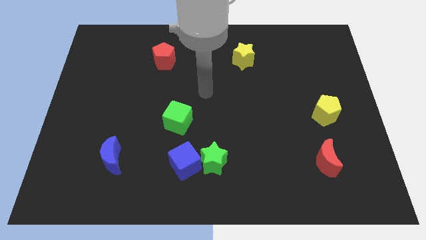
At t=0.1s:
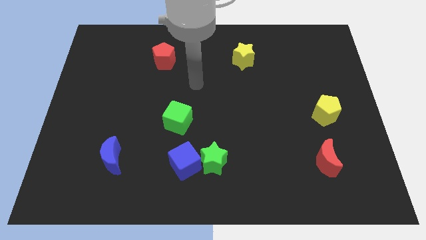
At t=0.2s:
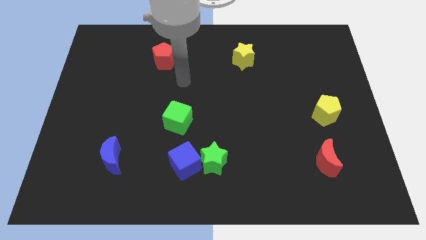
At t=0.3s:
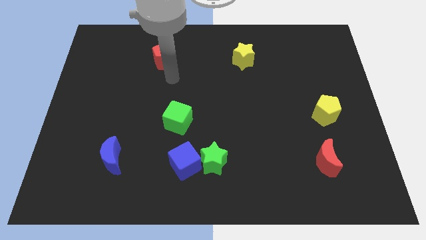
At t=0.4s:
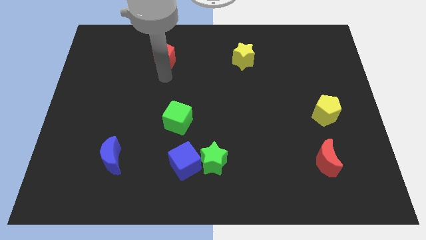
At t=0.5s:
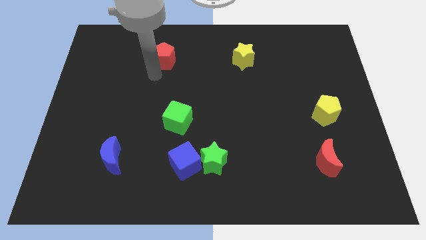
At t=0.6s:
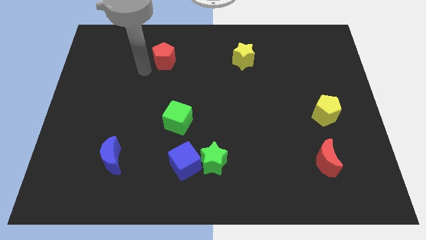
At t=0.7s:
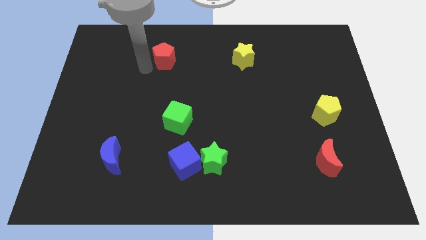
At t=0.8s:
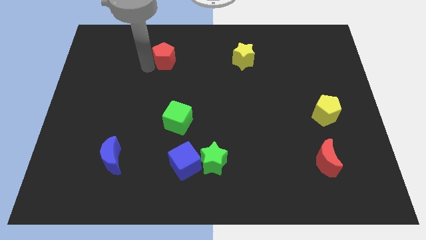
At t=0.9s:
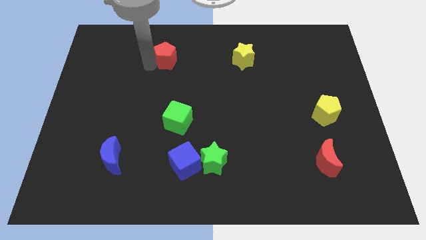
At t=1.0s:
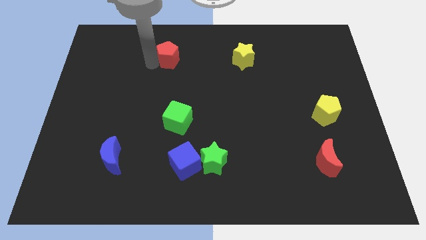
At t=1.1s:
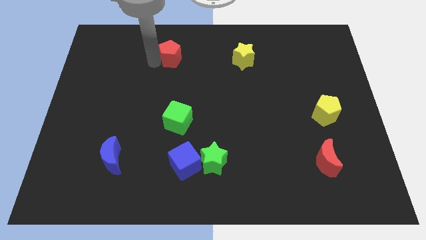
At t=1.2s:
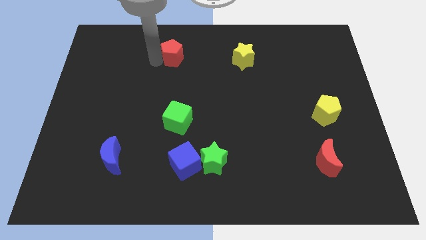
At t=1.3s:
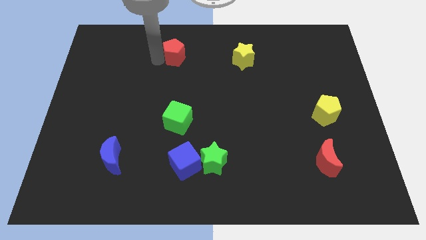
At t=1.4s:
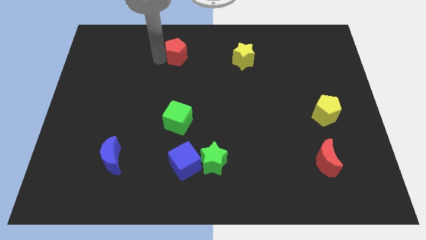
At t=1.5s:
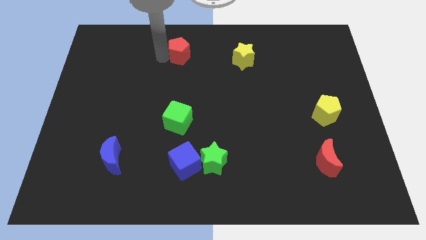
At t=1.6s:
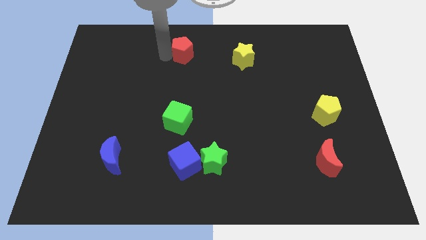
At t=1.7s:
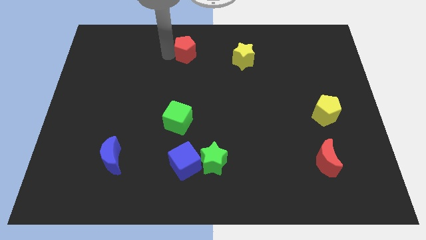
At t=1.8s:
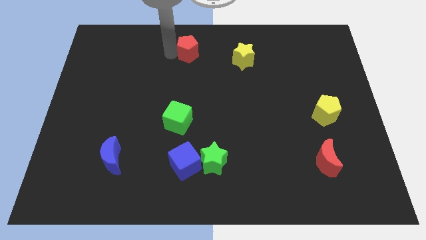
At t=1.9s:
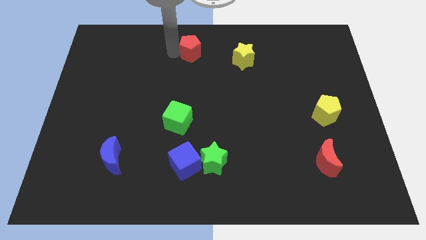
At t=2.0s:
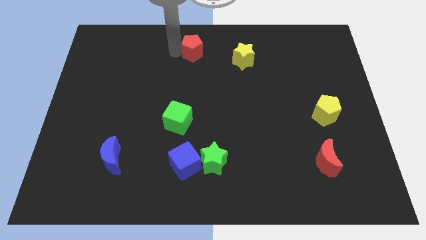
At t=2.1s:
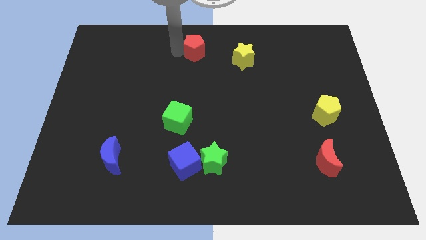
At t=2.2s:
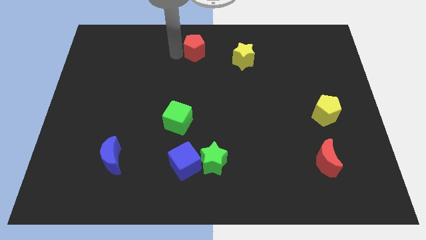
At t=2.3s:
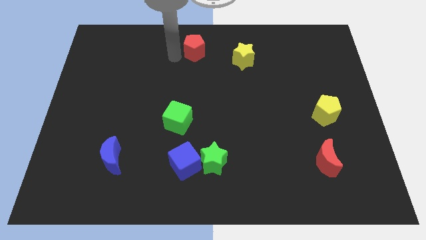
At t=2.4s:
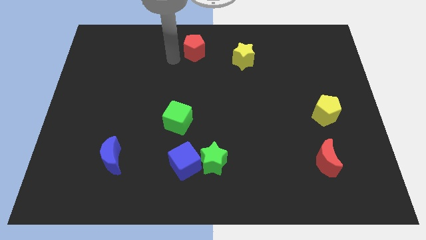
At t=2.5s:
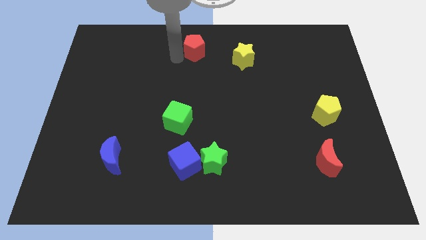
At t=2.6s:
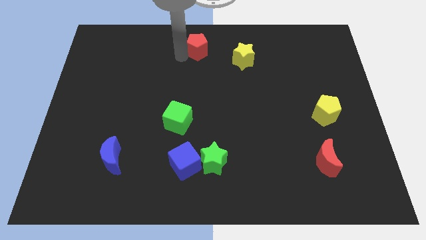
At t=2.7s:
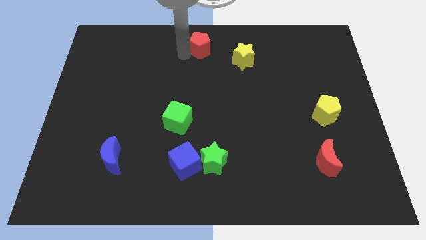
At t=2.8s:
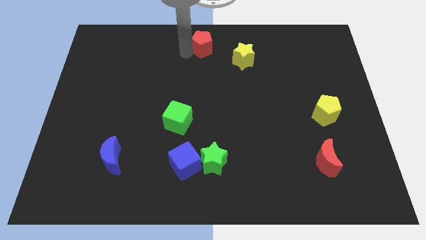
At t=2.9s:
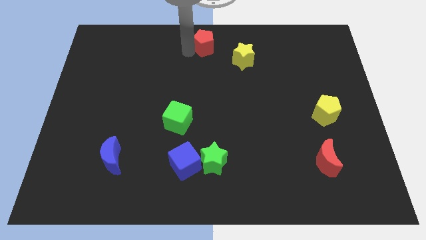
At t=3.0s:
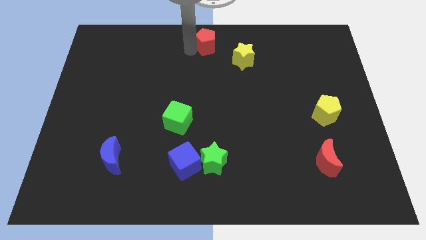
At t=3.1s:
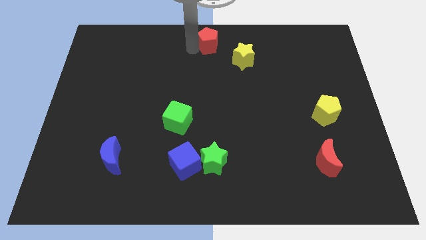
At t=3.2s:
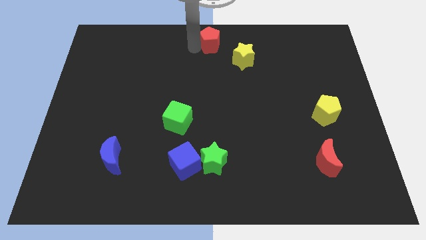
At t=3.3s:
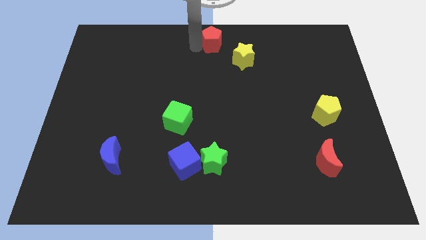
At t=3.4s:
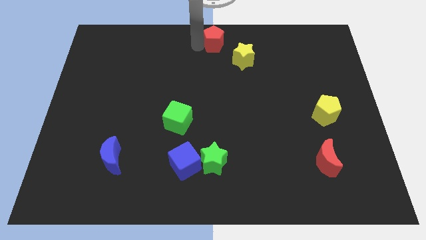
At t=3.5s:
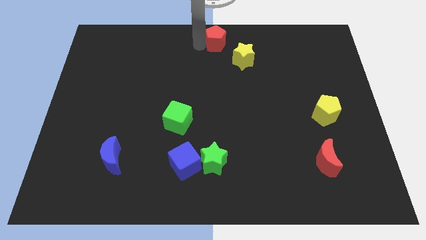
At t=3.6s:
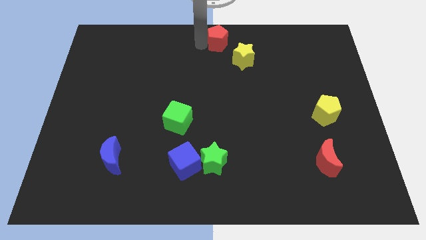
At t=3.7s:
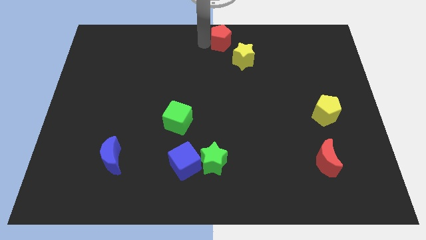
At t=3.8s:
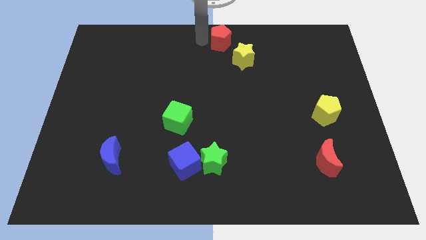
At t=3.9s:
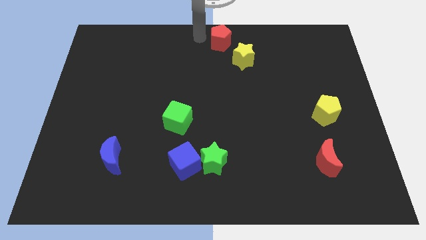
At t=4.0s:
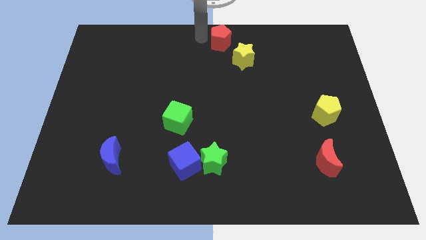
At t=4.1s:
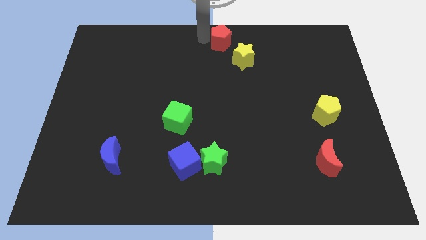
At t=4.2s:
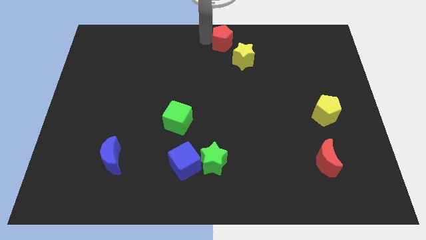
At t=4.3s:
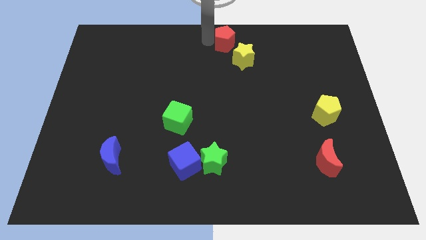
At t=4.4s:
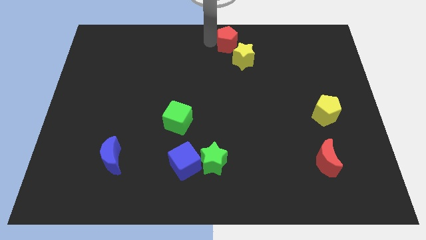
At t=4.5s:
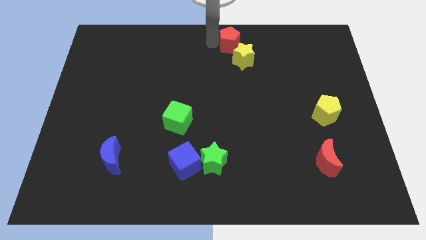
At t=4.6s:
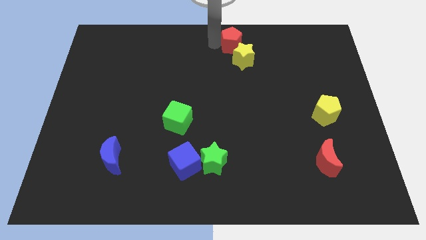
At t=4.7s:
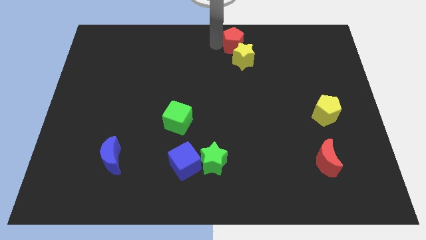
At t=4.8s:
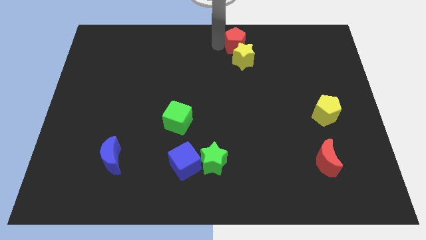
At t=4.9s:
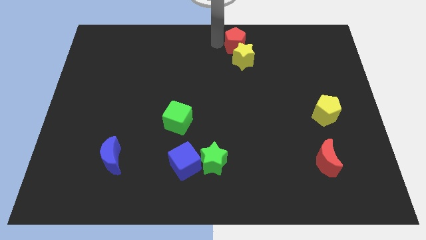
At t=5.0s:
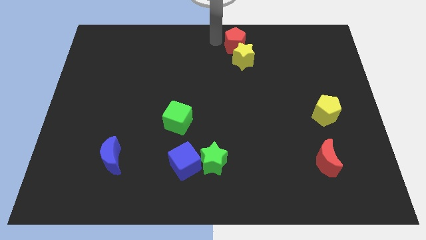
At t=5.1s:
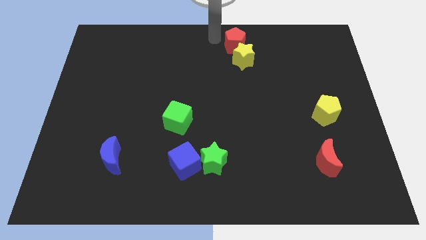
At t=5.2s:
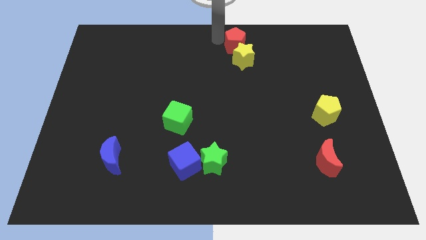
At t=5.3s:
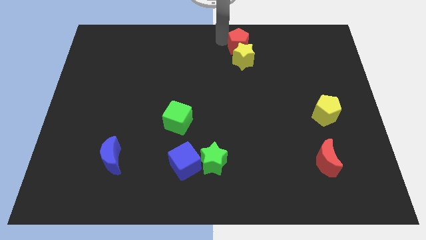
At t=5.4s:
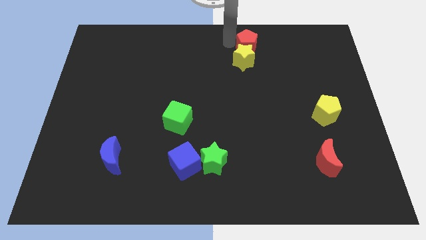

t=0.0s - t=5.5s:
slide the red pentagon right

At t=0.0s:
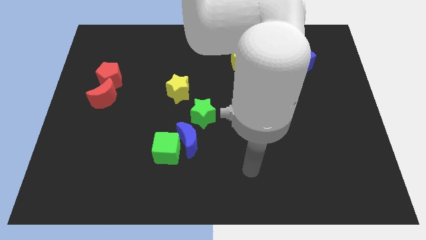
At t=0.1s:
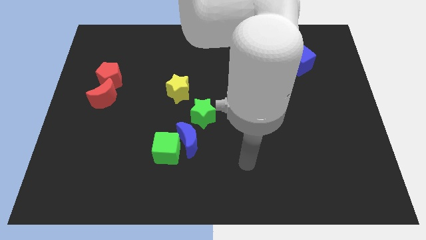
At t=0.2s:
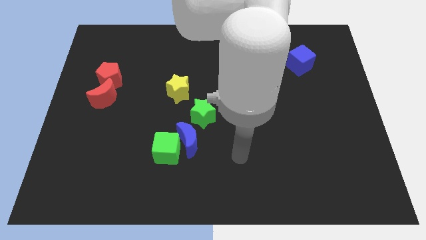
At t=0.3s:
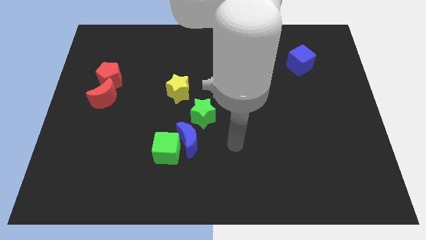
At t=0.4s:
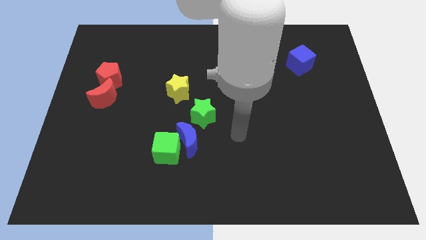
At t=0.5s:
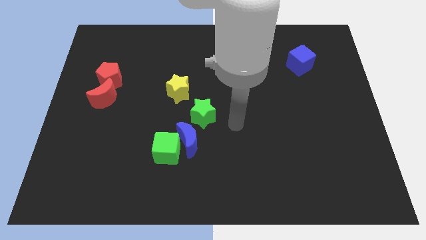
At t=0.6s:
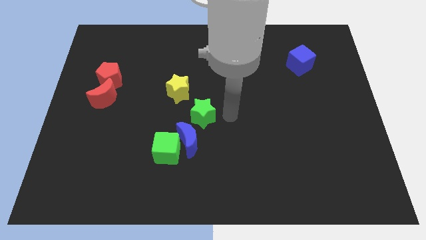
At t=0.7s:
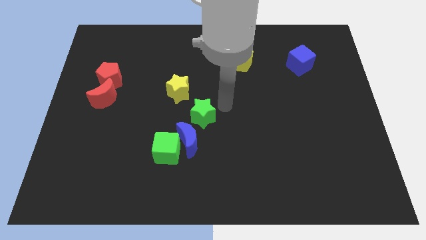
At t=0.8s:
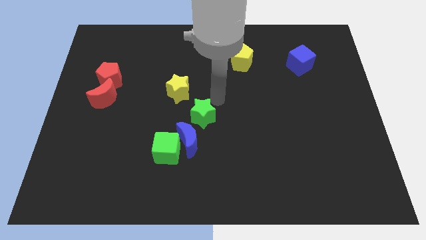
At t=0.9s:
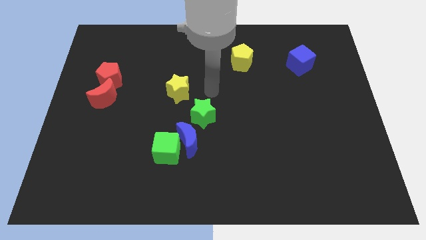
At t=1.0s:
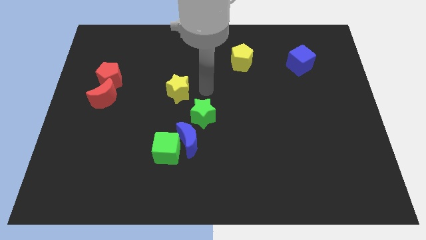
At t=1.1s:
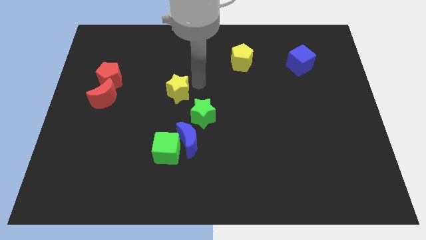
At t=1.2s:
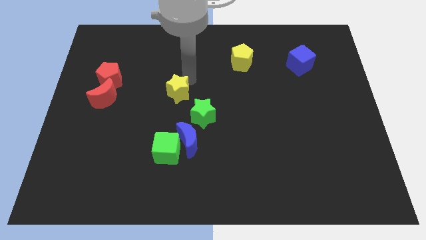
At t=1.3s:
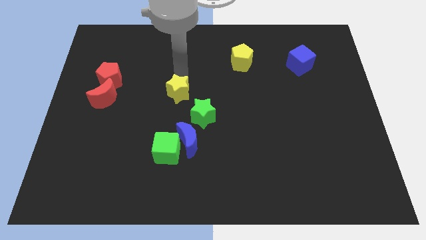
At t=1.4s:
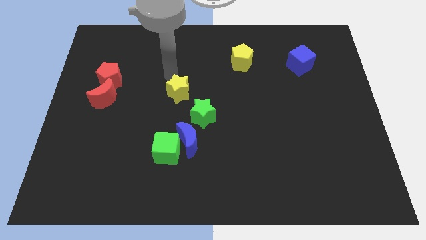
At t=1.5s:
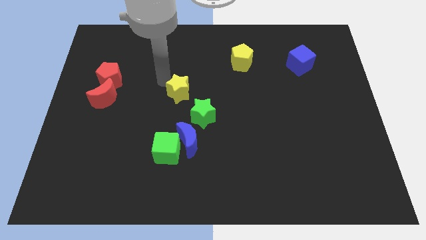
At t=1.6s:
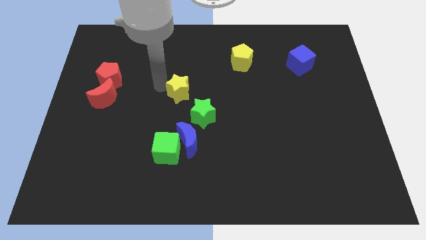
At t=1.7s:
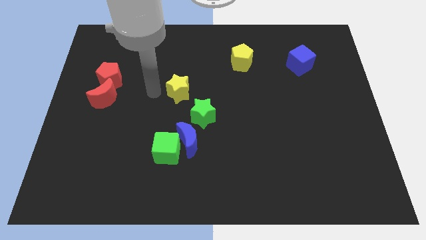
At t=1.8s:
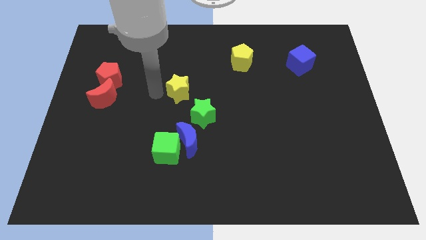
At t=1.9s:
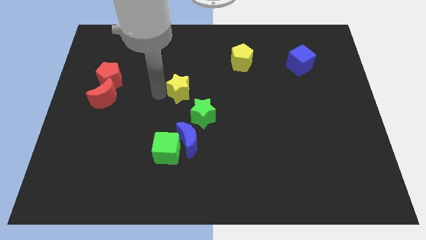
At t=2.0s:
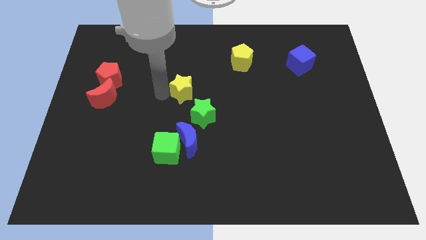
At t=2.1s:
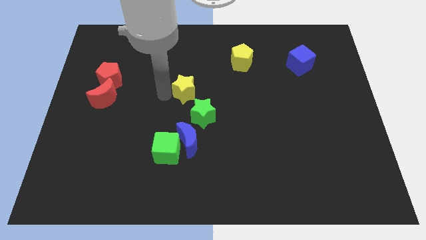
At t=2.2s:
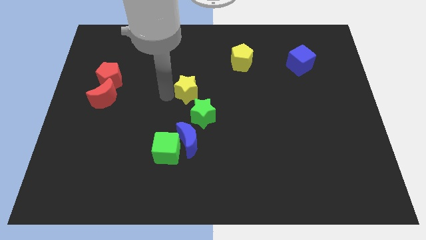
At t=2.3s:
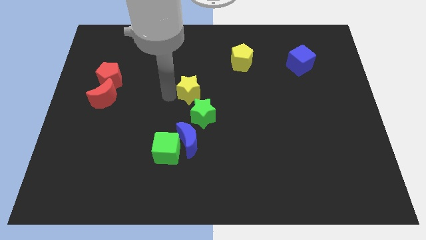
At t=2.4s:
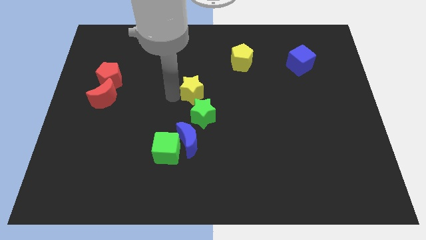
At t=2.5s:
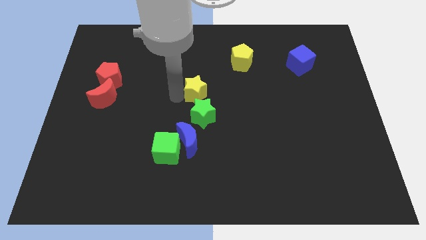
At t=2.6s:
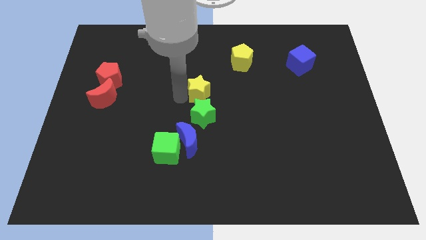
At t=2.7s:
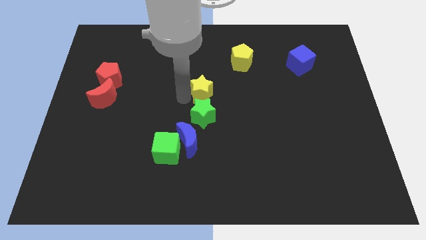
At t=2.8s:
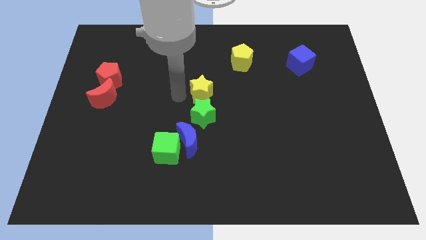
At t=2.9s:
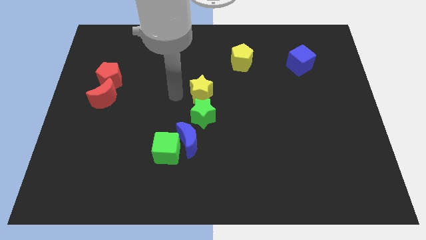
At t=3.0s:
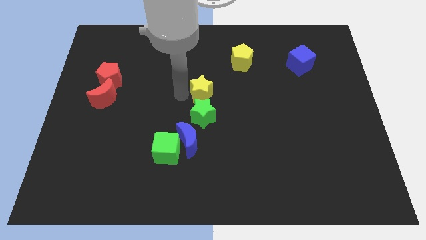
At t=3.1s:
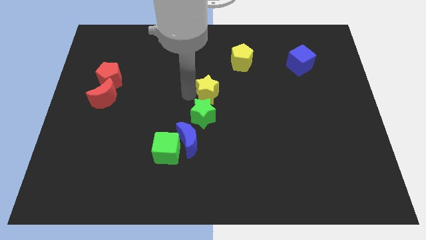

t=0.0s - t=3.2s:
push the yellow star to the right a bit
